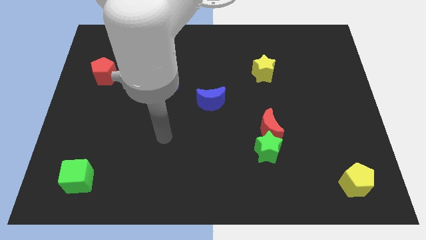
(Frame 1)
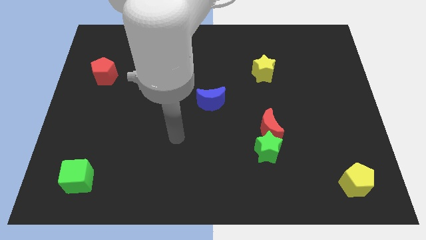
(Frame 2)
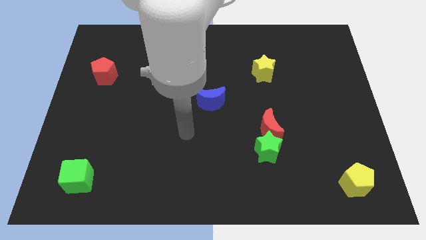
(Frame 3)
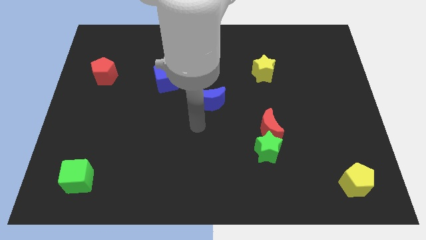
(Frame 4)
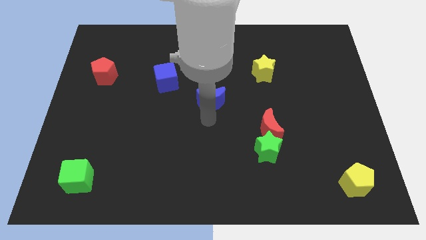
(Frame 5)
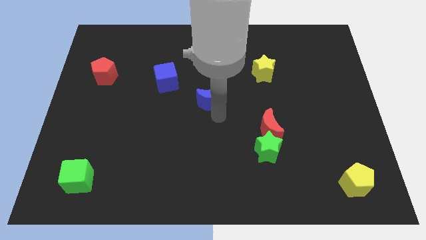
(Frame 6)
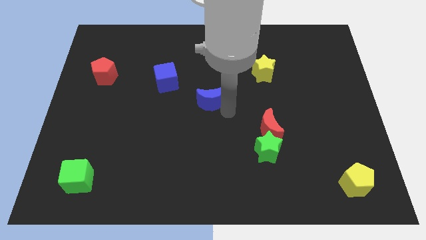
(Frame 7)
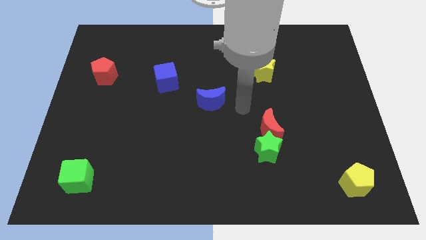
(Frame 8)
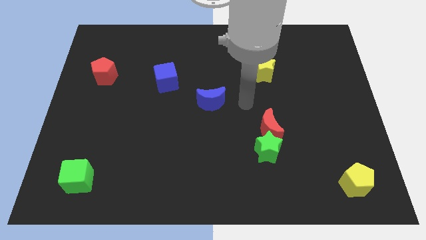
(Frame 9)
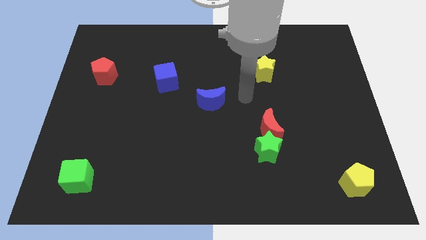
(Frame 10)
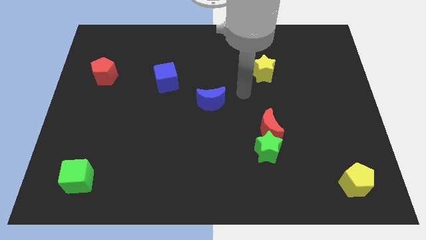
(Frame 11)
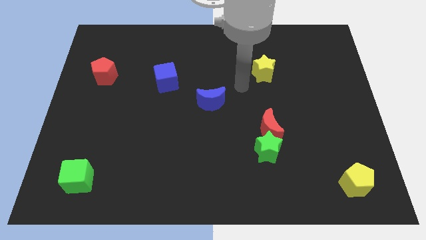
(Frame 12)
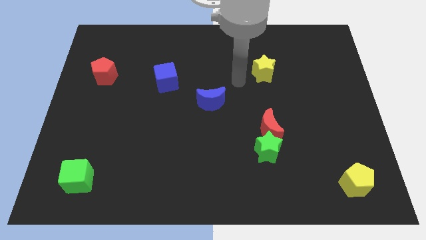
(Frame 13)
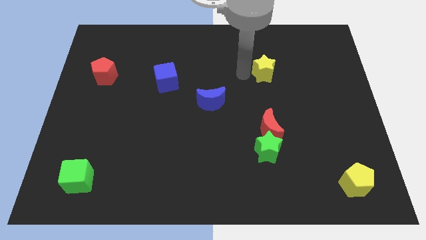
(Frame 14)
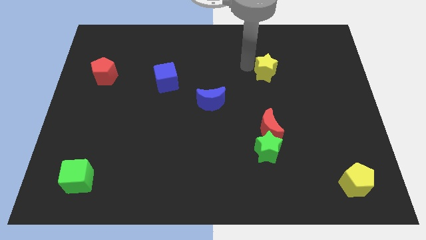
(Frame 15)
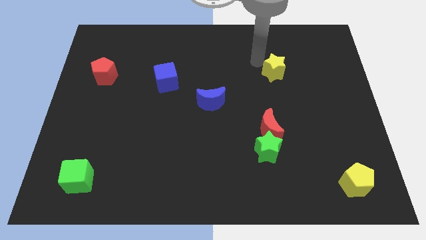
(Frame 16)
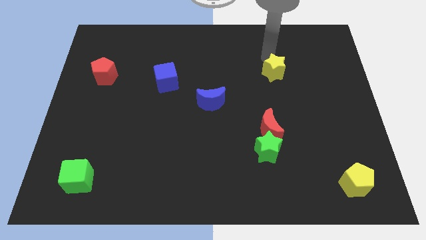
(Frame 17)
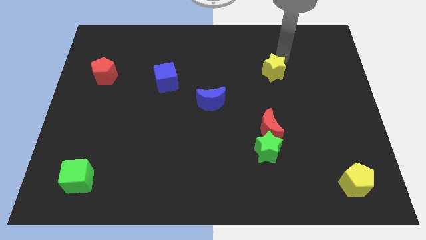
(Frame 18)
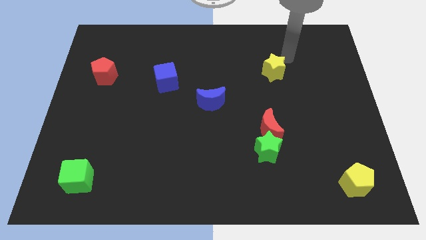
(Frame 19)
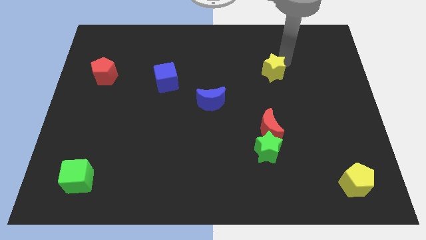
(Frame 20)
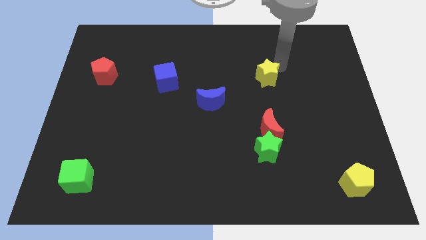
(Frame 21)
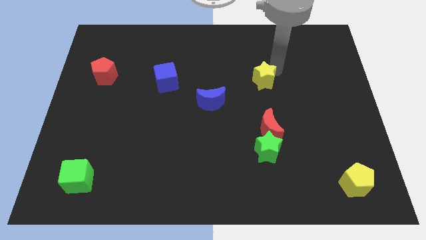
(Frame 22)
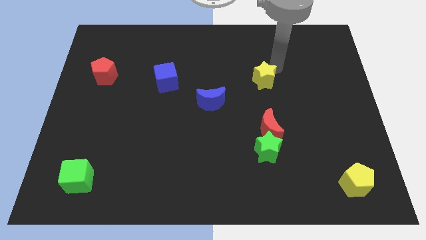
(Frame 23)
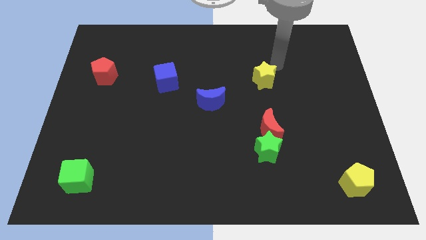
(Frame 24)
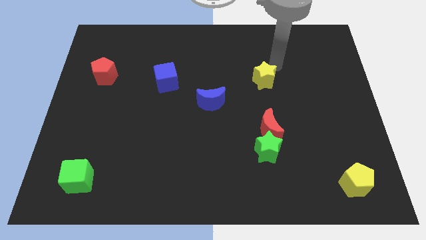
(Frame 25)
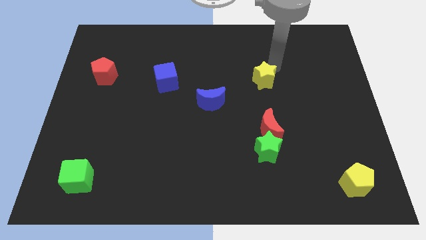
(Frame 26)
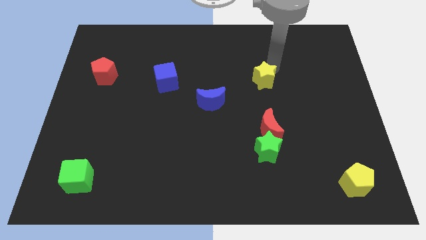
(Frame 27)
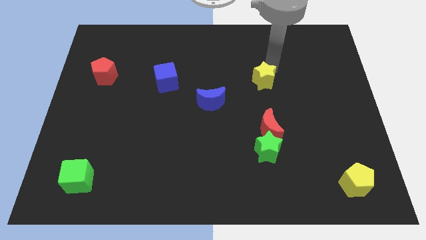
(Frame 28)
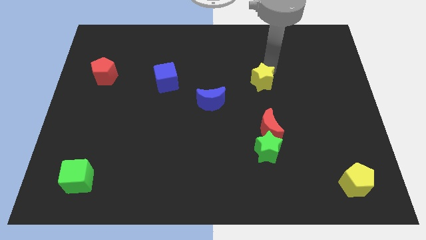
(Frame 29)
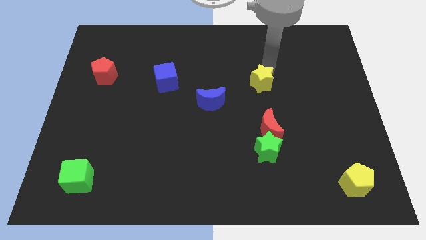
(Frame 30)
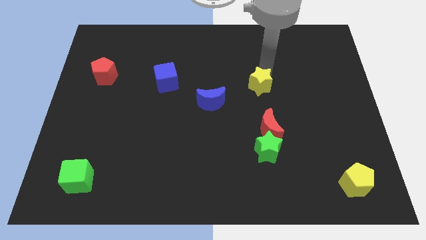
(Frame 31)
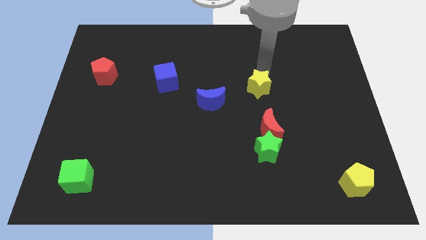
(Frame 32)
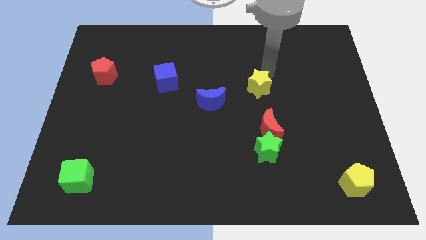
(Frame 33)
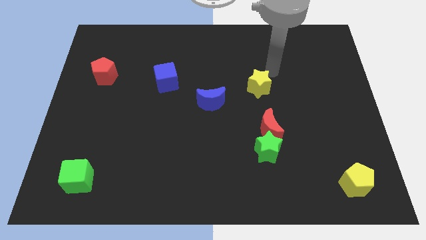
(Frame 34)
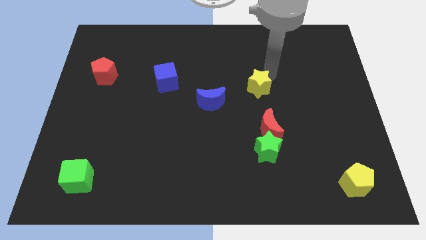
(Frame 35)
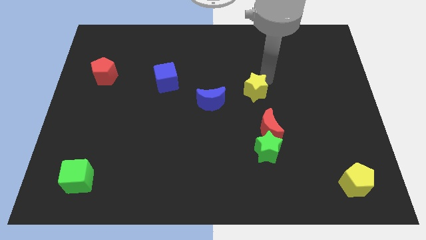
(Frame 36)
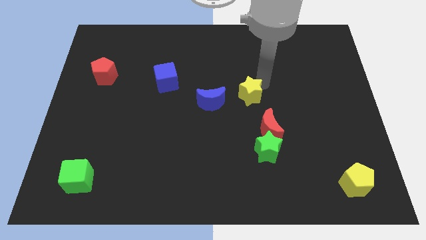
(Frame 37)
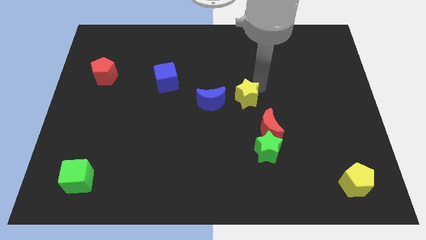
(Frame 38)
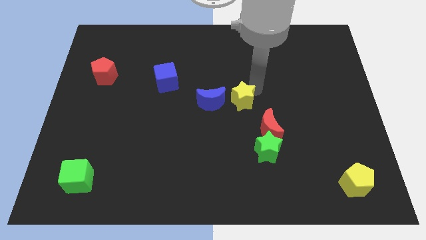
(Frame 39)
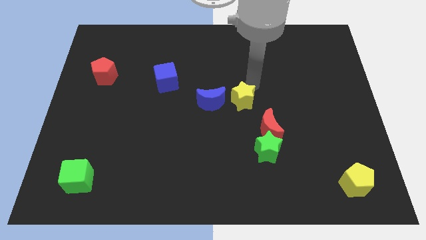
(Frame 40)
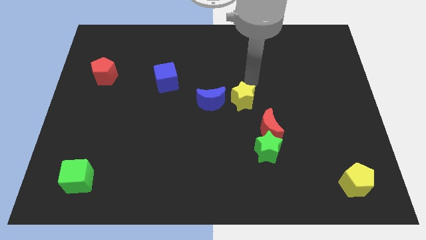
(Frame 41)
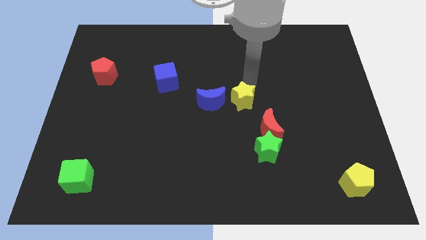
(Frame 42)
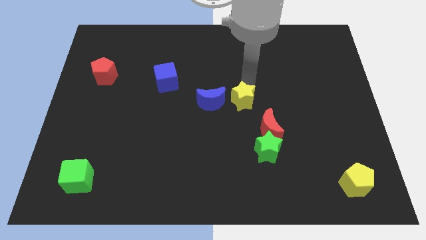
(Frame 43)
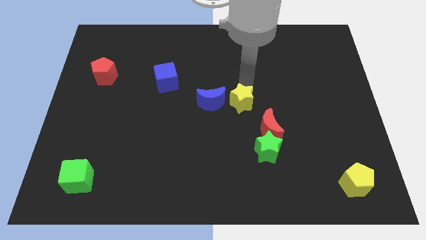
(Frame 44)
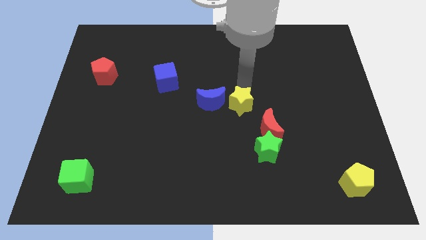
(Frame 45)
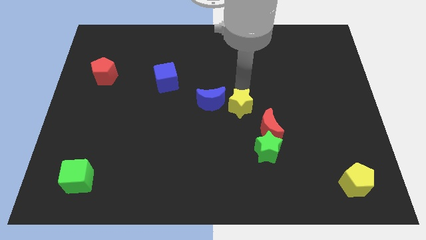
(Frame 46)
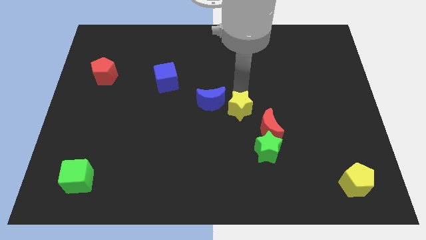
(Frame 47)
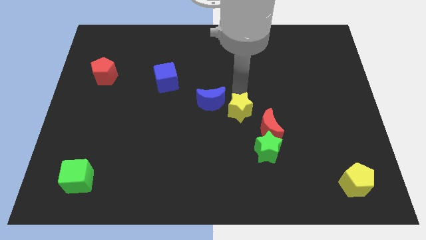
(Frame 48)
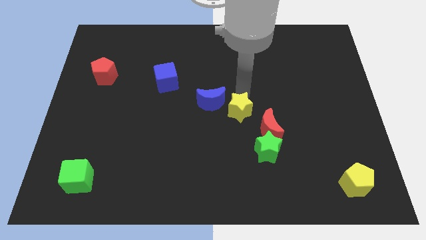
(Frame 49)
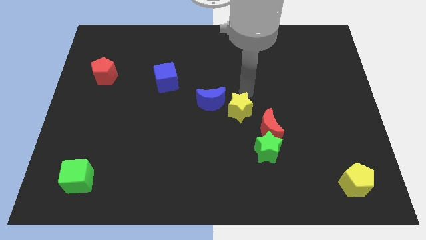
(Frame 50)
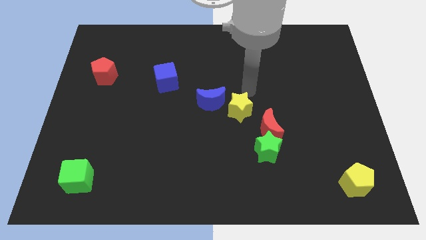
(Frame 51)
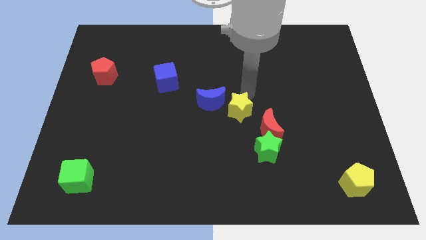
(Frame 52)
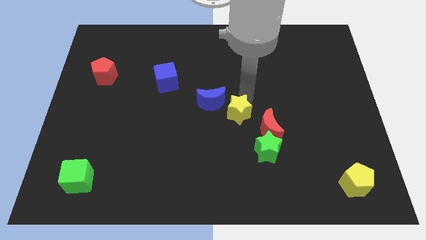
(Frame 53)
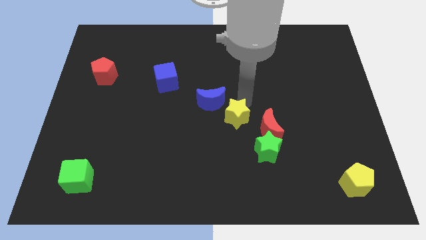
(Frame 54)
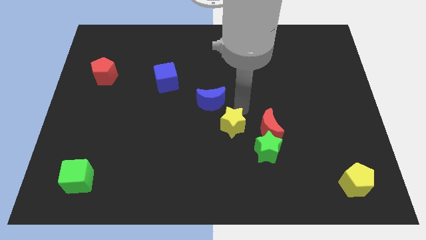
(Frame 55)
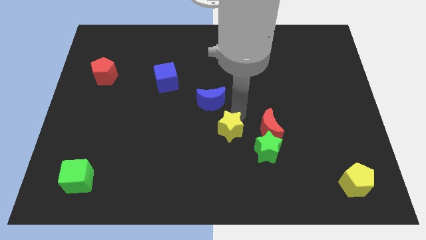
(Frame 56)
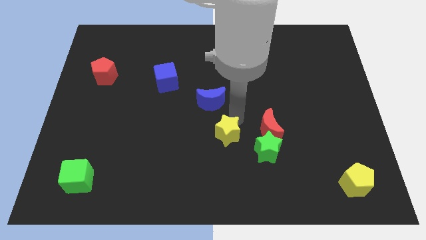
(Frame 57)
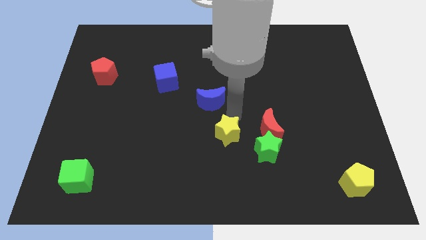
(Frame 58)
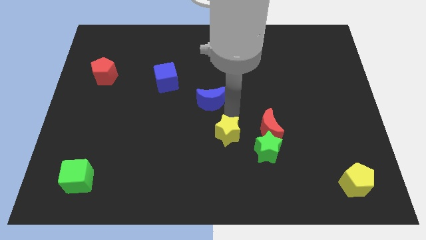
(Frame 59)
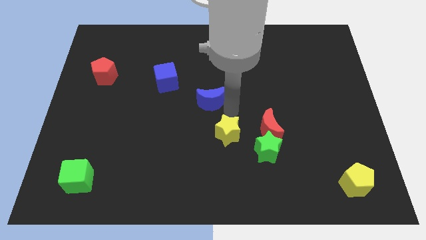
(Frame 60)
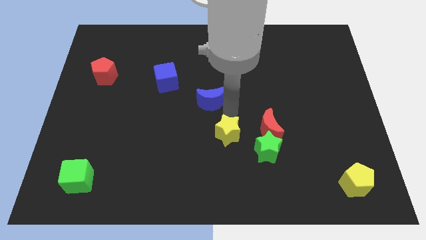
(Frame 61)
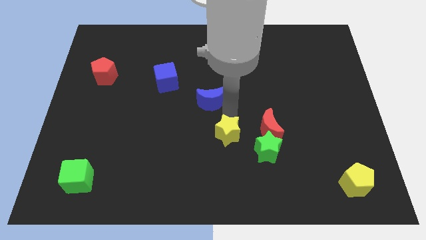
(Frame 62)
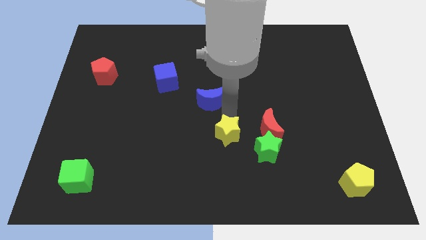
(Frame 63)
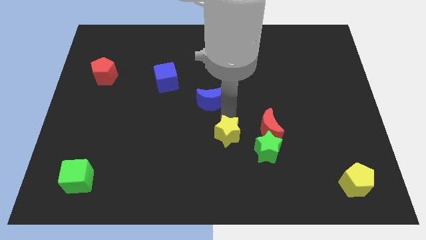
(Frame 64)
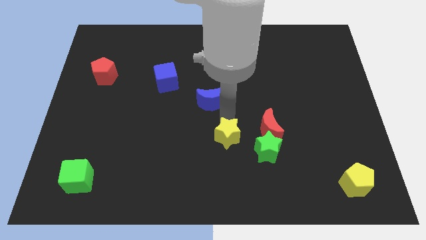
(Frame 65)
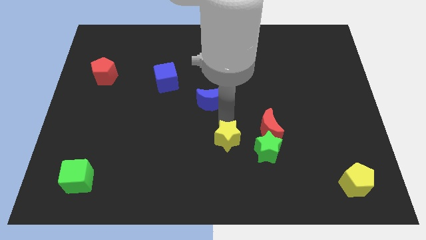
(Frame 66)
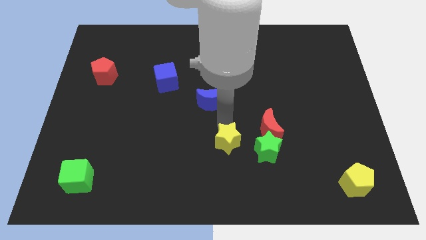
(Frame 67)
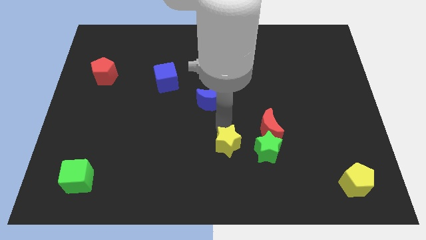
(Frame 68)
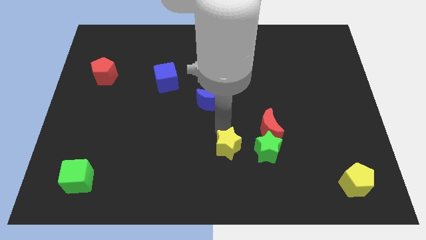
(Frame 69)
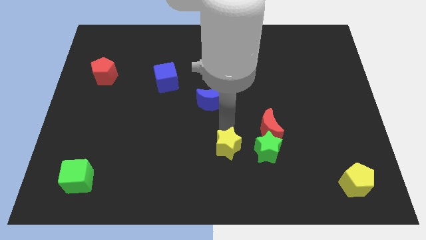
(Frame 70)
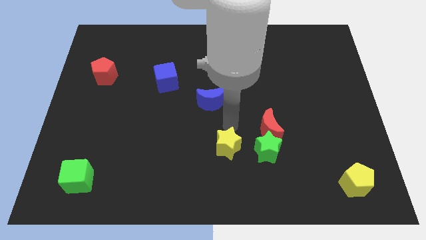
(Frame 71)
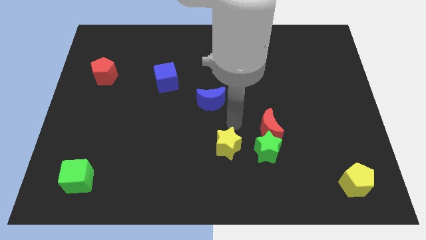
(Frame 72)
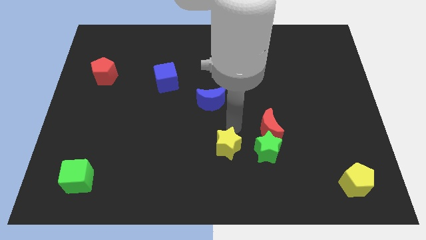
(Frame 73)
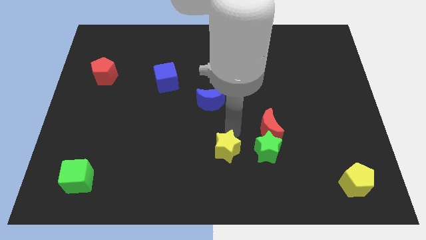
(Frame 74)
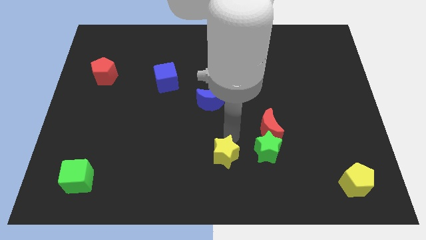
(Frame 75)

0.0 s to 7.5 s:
move the yellow star to the bottom side
